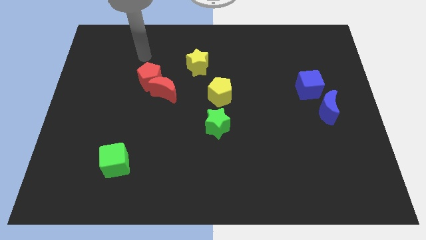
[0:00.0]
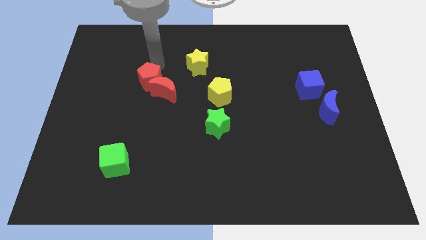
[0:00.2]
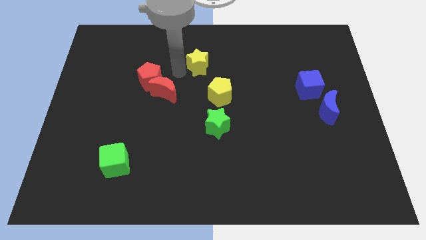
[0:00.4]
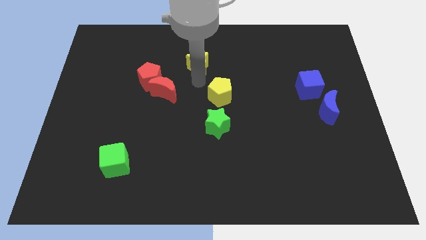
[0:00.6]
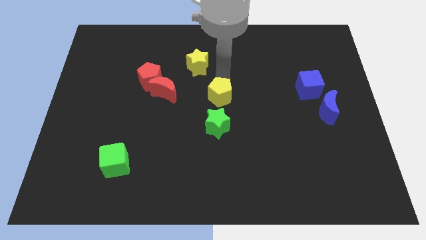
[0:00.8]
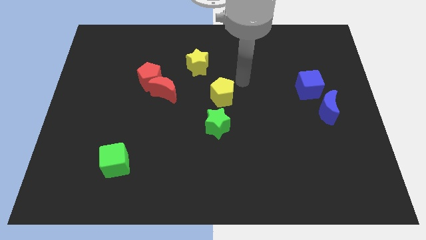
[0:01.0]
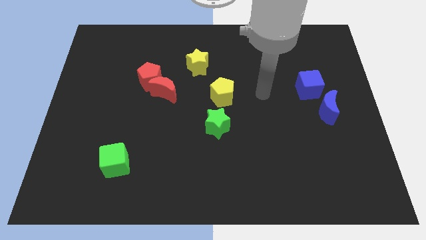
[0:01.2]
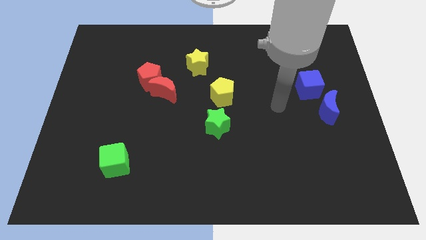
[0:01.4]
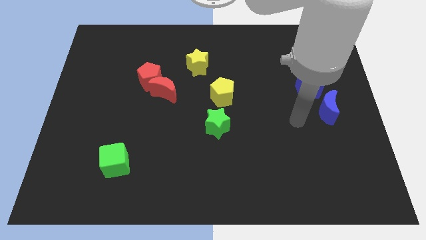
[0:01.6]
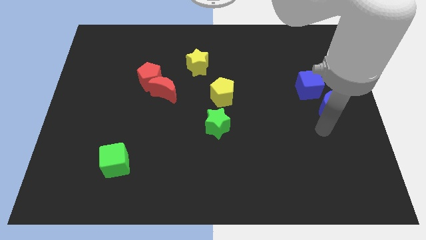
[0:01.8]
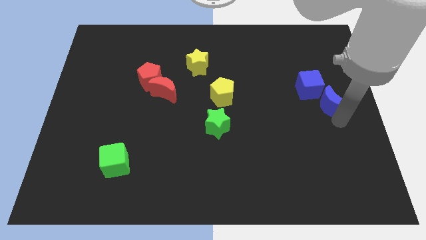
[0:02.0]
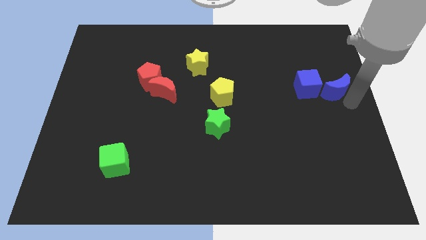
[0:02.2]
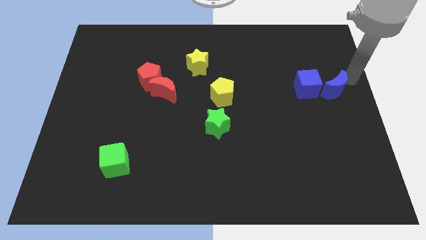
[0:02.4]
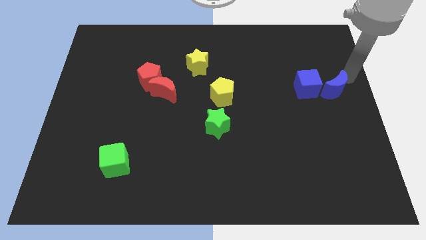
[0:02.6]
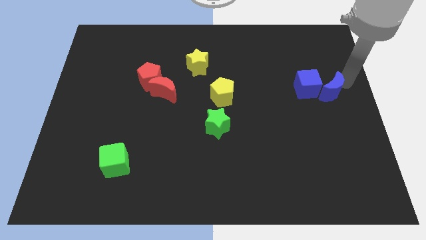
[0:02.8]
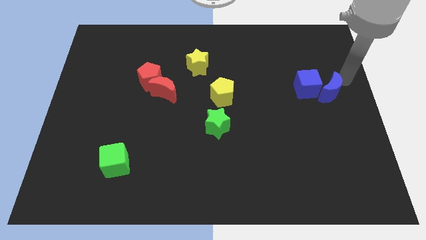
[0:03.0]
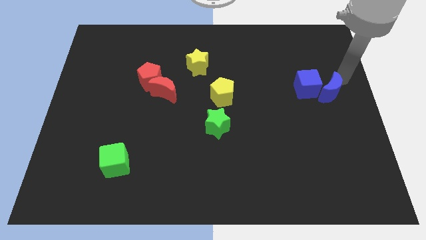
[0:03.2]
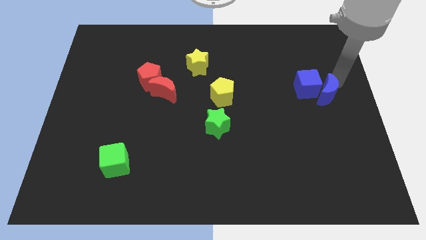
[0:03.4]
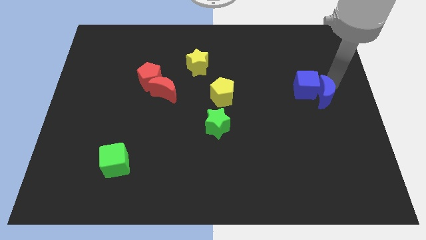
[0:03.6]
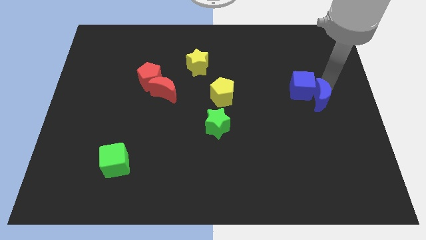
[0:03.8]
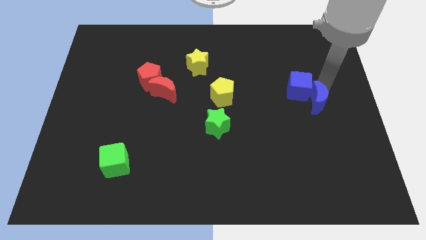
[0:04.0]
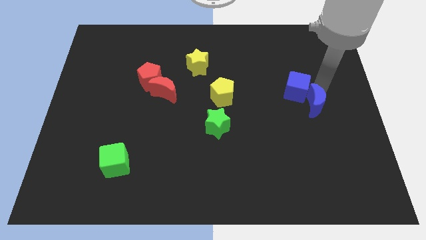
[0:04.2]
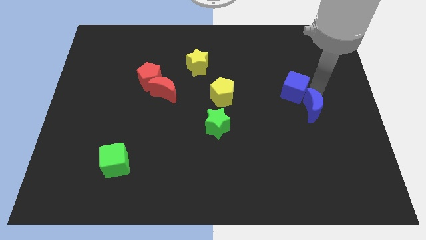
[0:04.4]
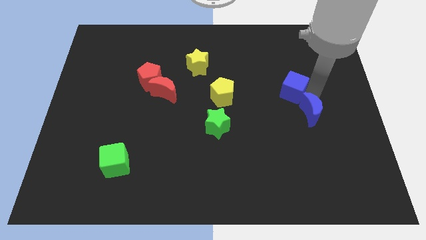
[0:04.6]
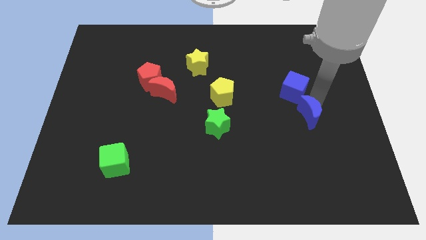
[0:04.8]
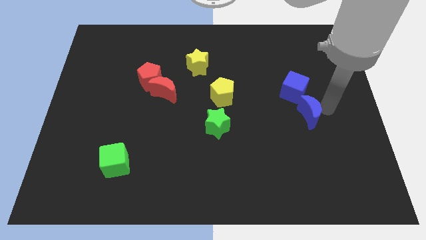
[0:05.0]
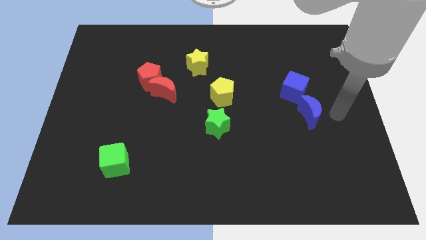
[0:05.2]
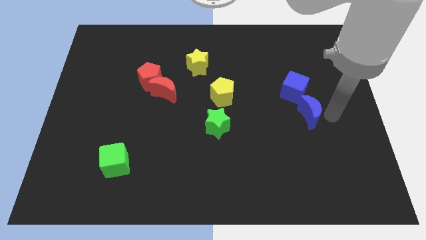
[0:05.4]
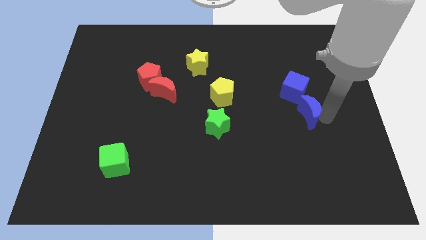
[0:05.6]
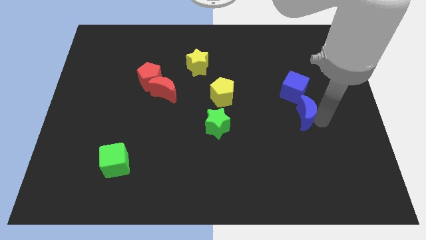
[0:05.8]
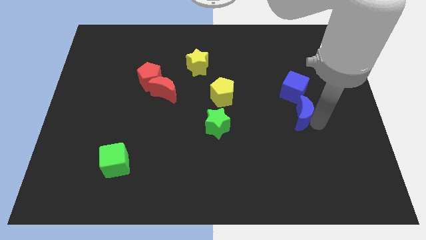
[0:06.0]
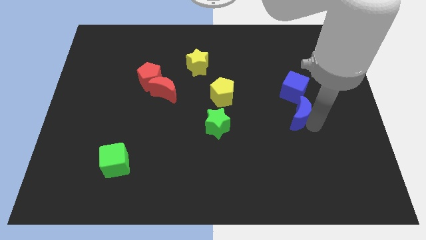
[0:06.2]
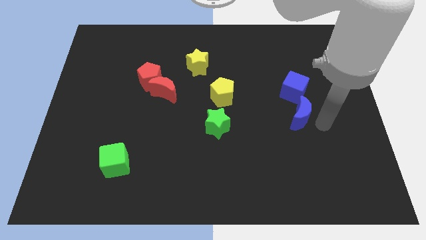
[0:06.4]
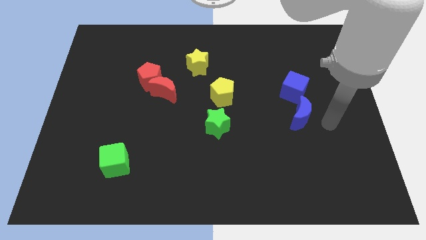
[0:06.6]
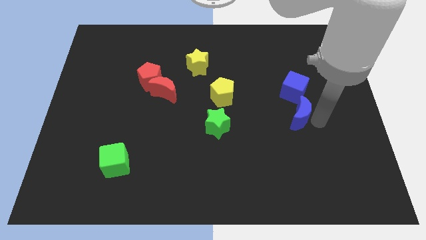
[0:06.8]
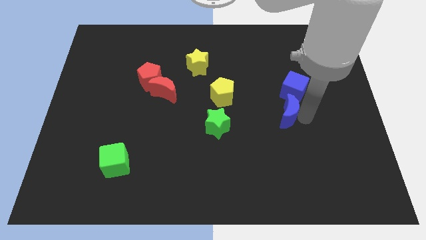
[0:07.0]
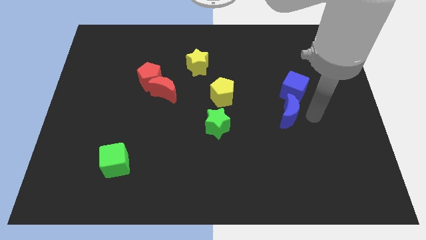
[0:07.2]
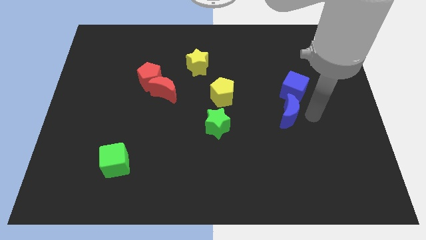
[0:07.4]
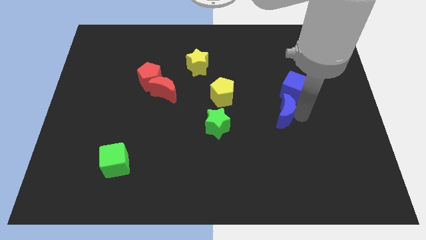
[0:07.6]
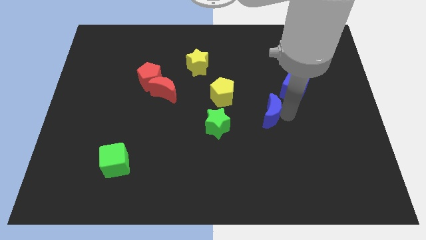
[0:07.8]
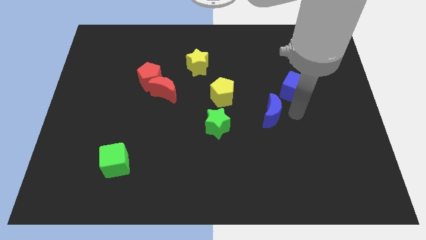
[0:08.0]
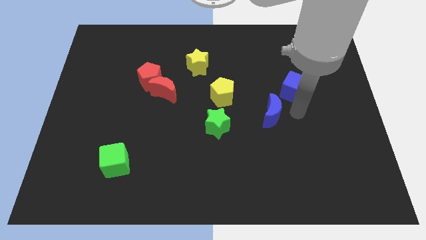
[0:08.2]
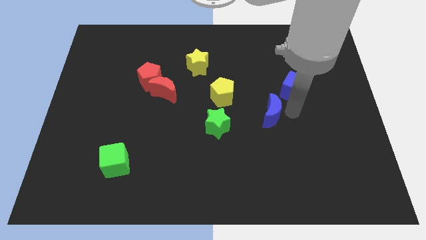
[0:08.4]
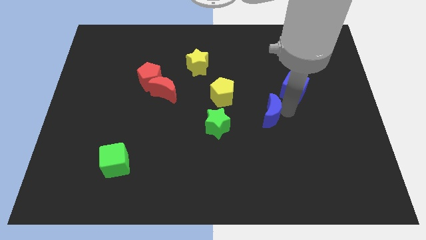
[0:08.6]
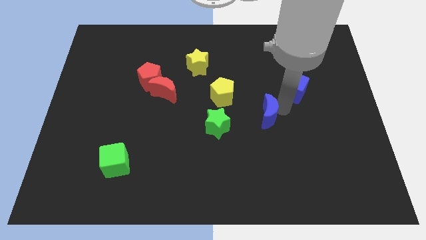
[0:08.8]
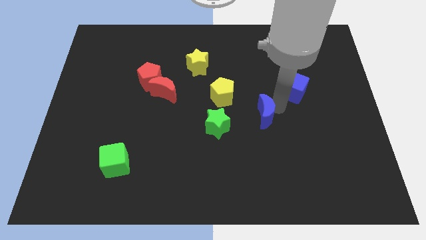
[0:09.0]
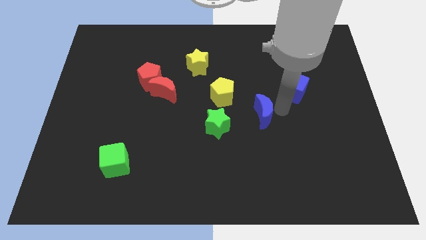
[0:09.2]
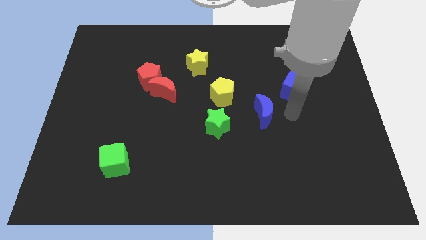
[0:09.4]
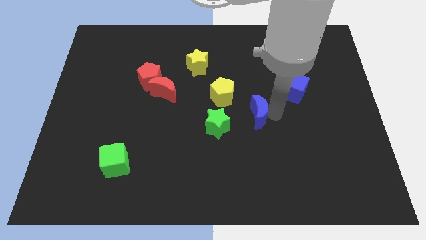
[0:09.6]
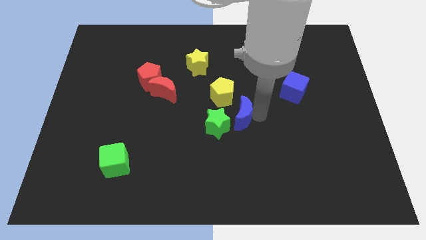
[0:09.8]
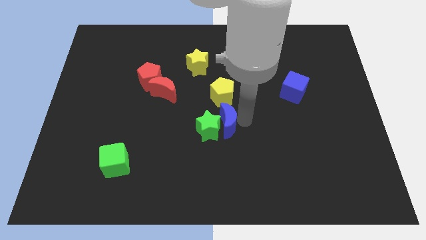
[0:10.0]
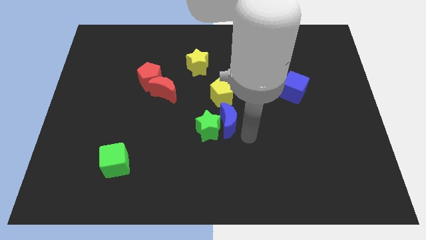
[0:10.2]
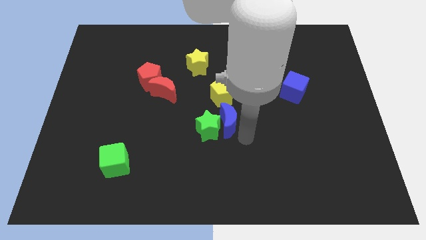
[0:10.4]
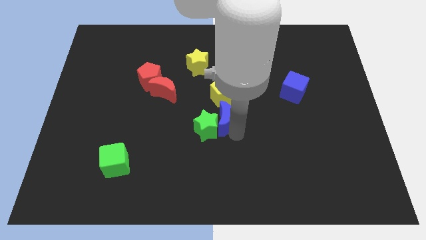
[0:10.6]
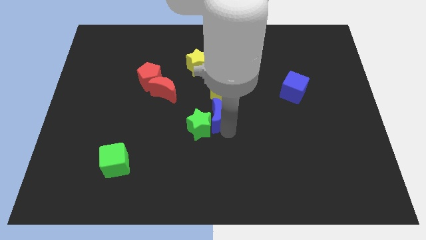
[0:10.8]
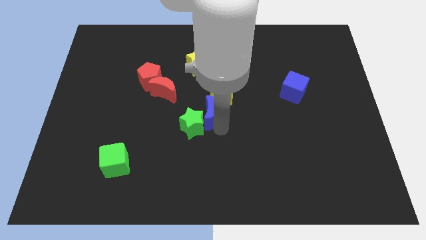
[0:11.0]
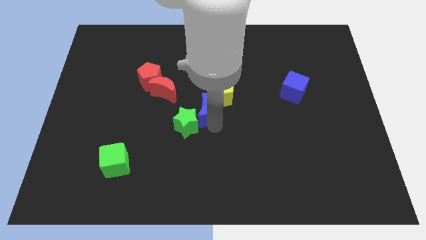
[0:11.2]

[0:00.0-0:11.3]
slide the blue moon to the bottom of the yellow star
